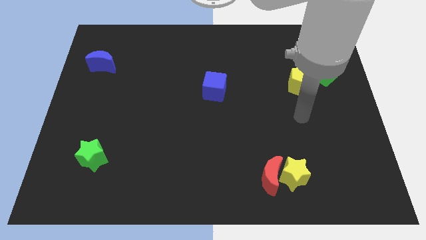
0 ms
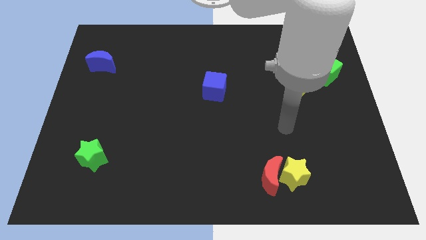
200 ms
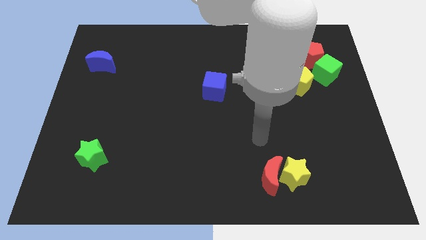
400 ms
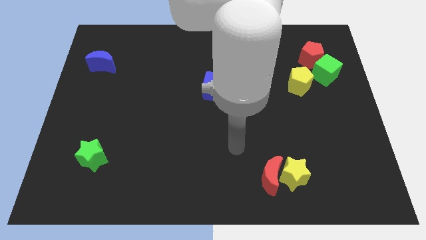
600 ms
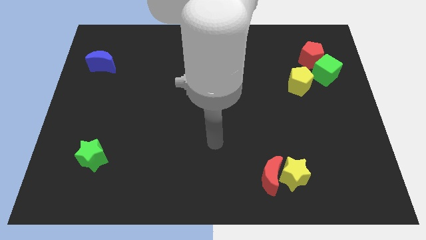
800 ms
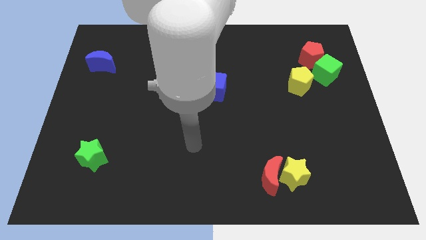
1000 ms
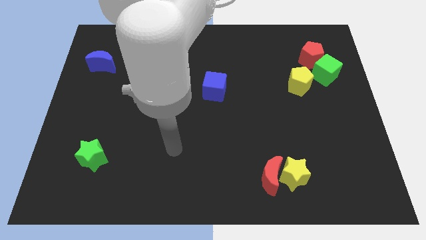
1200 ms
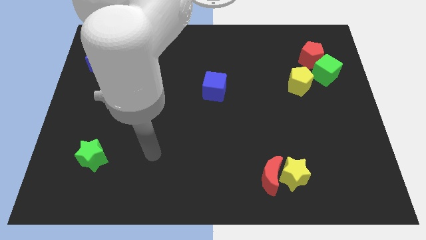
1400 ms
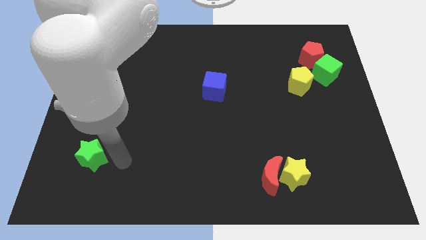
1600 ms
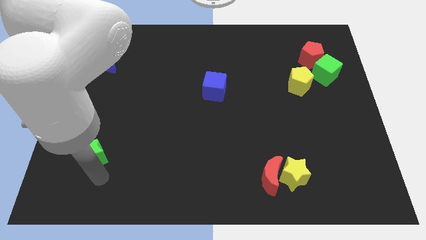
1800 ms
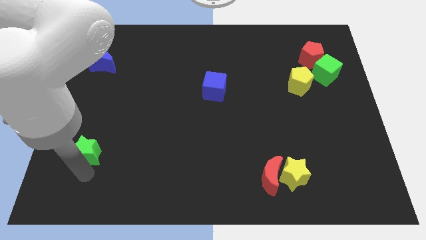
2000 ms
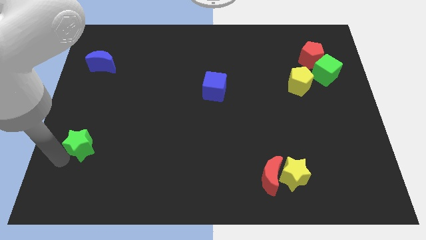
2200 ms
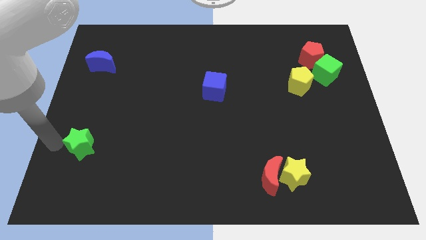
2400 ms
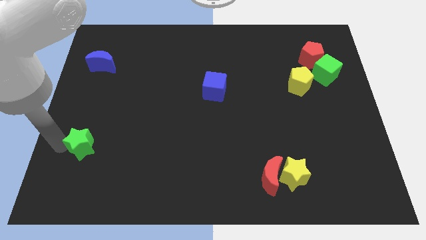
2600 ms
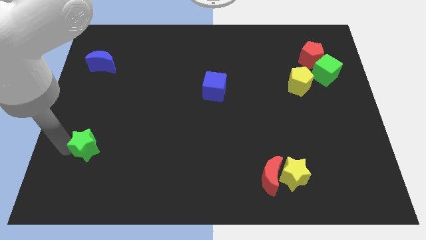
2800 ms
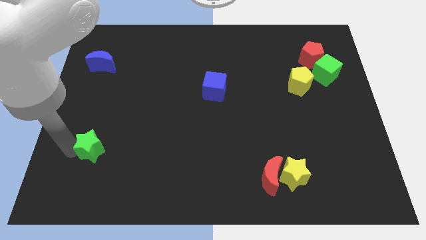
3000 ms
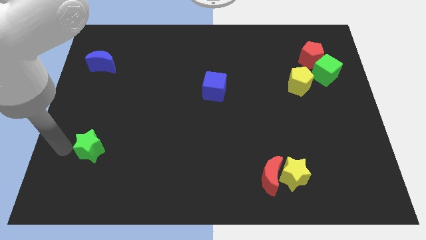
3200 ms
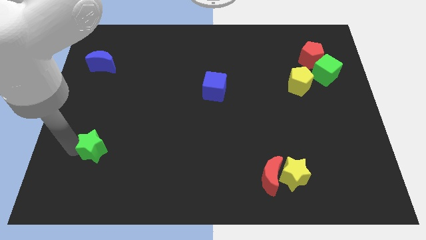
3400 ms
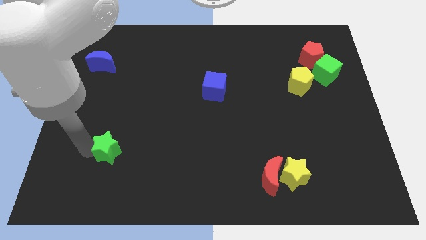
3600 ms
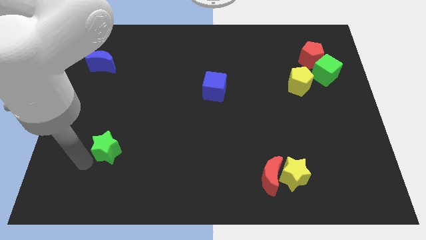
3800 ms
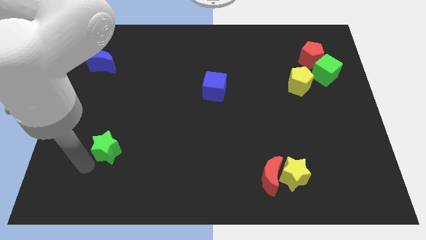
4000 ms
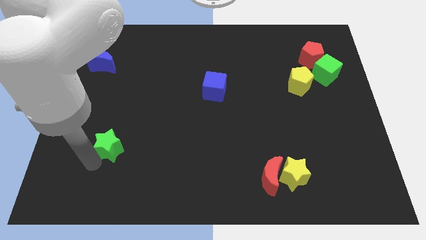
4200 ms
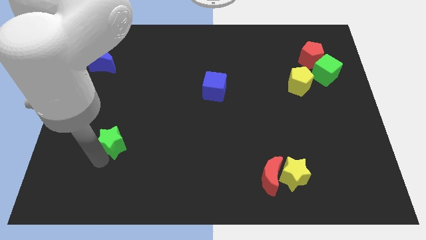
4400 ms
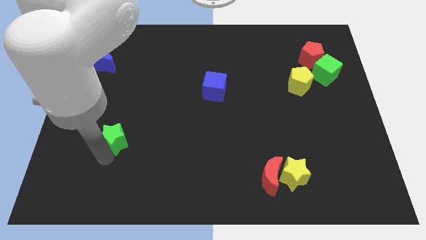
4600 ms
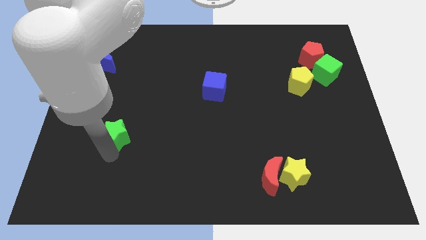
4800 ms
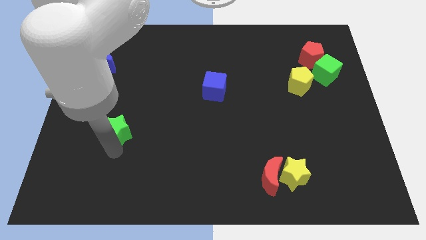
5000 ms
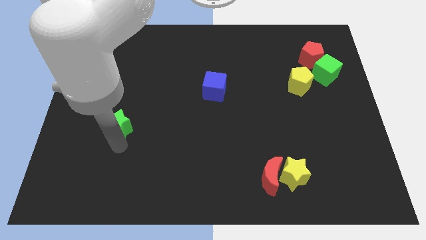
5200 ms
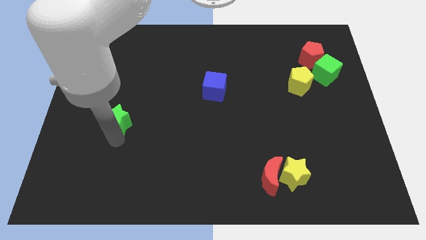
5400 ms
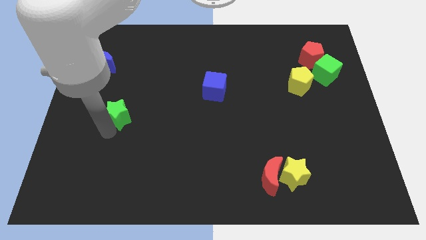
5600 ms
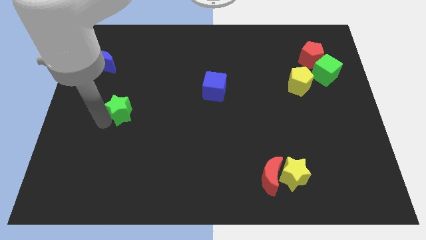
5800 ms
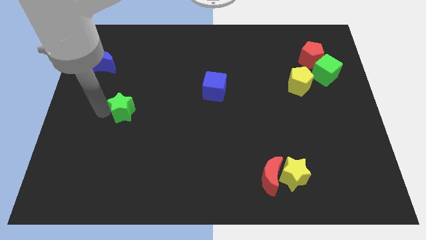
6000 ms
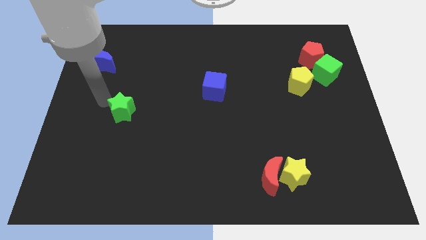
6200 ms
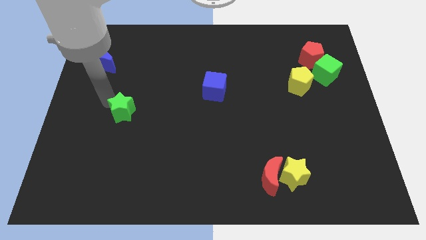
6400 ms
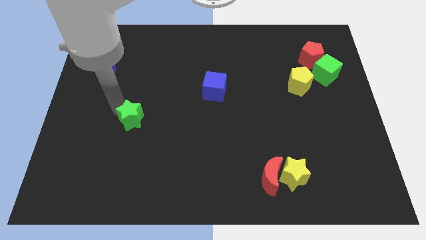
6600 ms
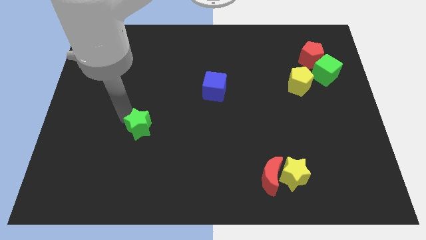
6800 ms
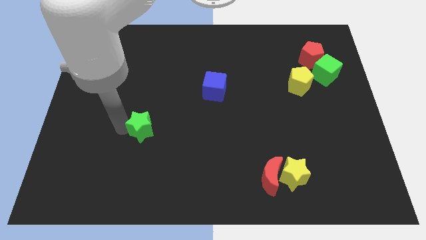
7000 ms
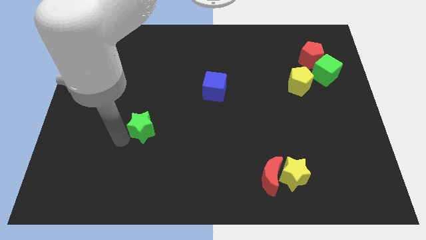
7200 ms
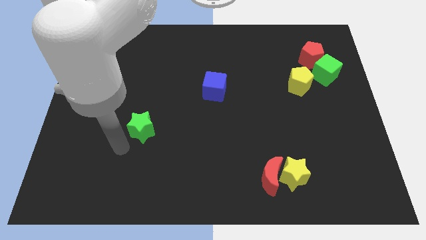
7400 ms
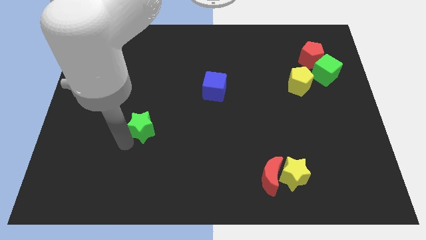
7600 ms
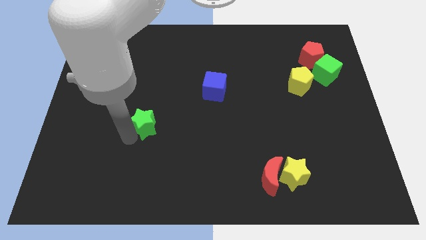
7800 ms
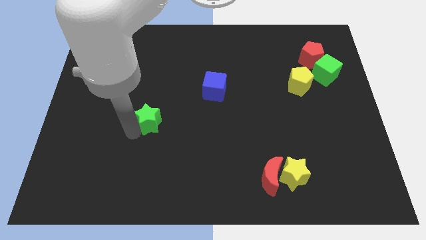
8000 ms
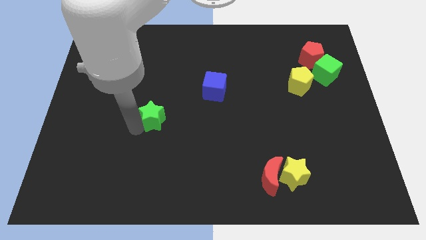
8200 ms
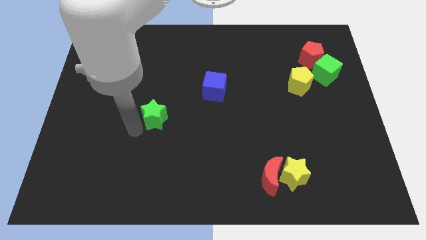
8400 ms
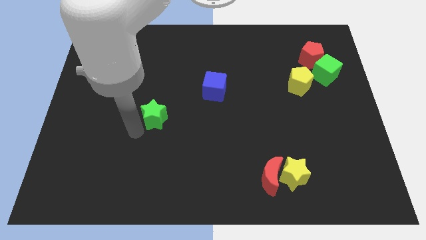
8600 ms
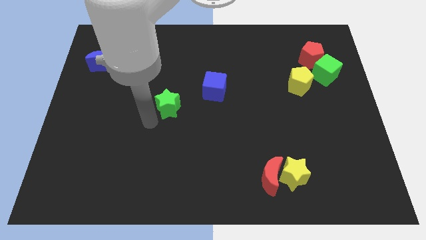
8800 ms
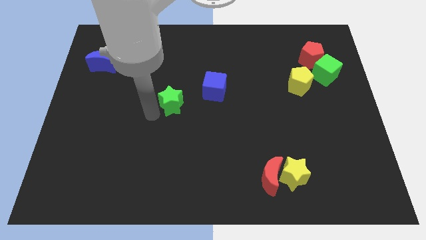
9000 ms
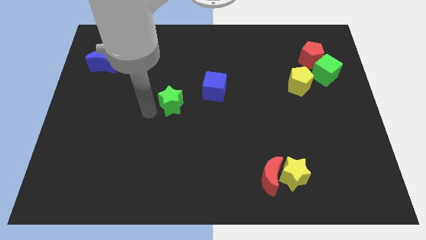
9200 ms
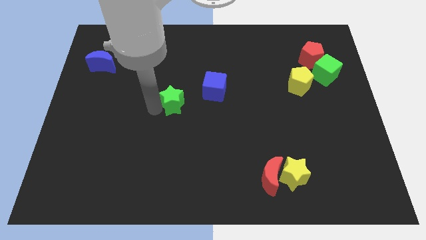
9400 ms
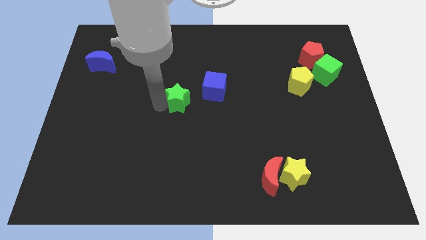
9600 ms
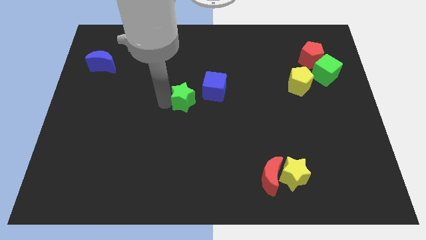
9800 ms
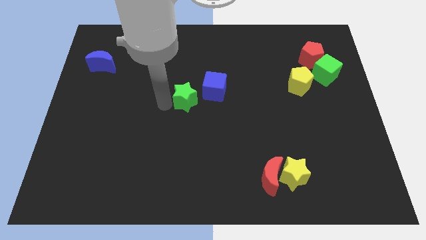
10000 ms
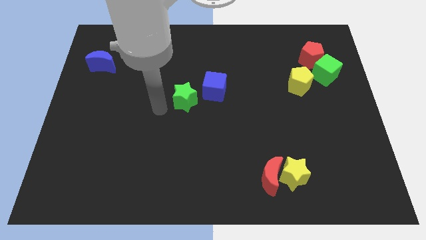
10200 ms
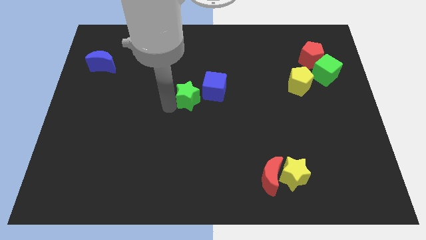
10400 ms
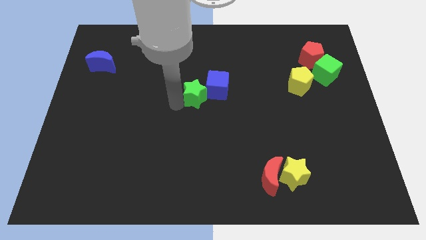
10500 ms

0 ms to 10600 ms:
put the green star next to the blue cube

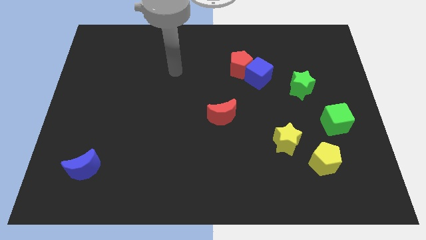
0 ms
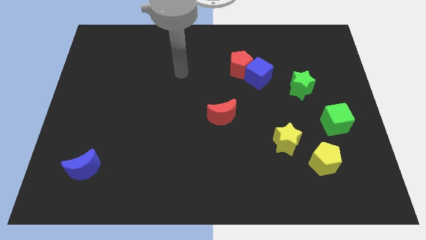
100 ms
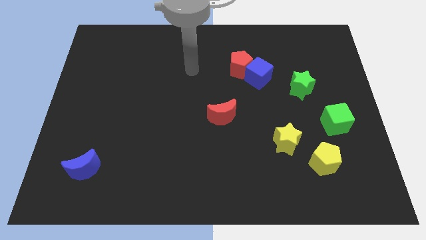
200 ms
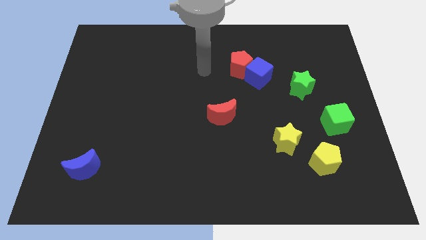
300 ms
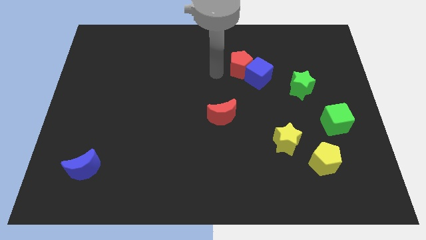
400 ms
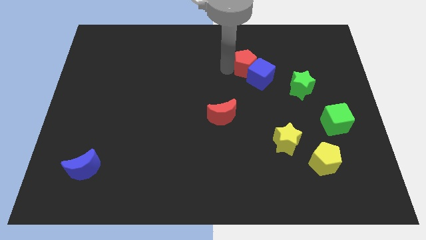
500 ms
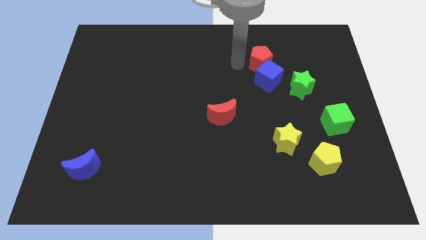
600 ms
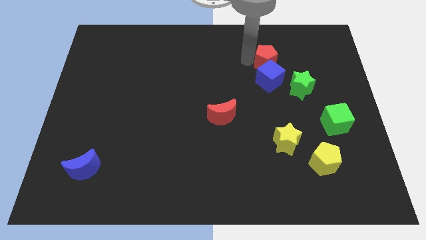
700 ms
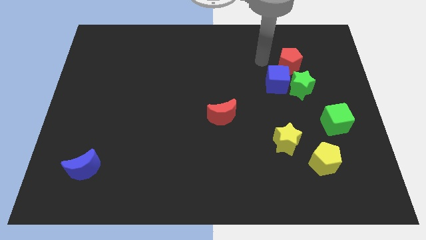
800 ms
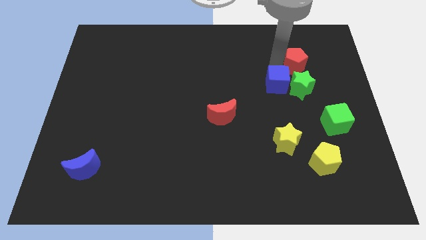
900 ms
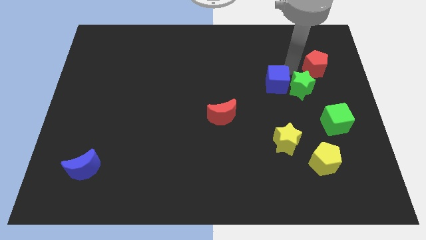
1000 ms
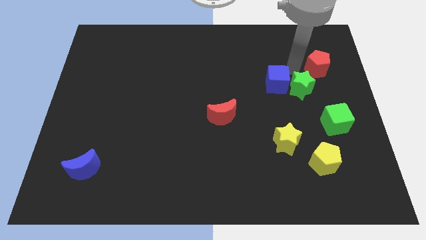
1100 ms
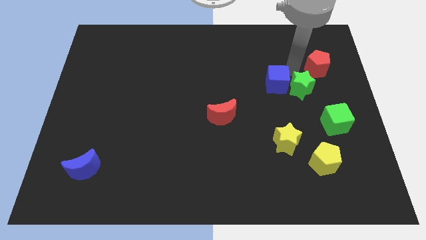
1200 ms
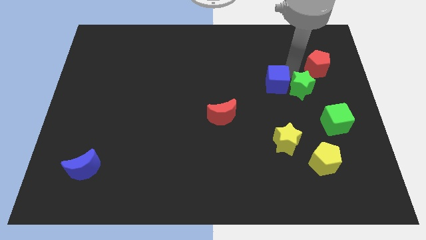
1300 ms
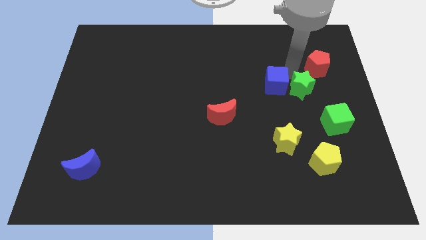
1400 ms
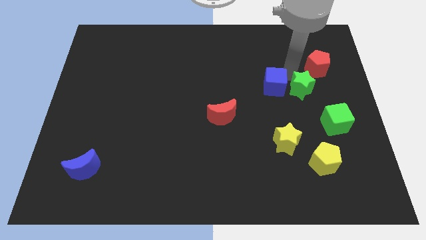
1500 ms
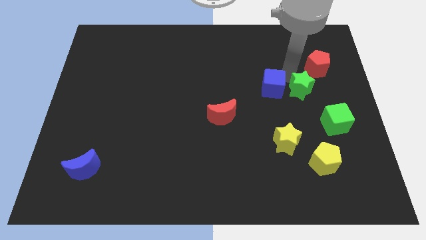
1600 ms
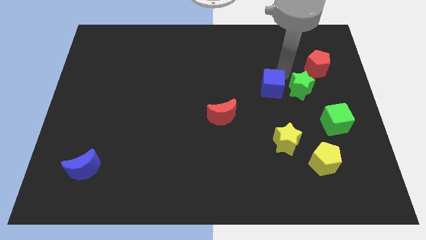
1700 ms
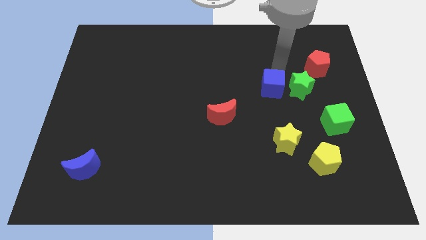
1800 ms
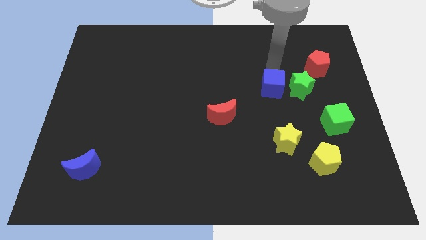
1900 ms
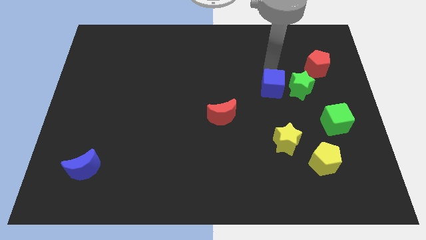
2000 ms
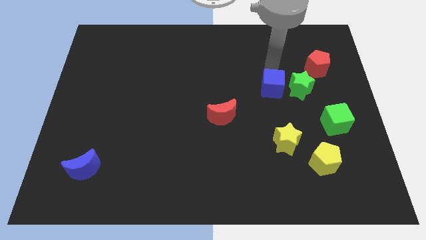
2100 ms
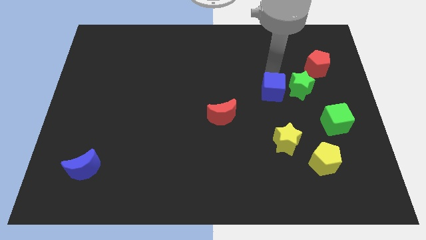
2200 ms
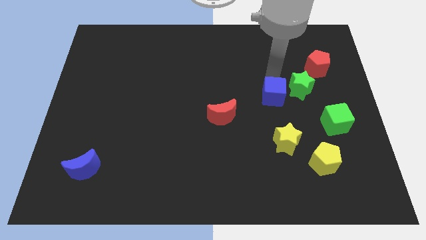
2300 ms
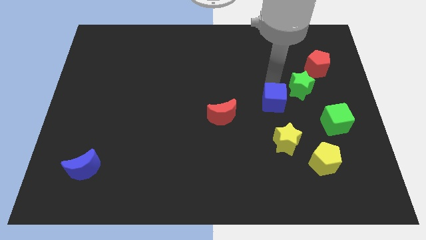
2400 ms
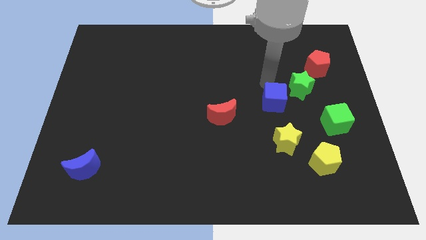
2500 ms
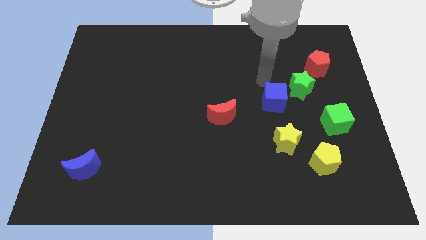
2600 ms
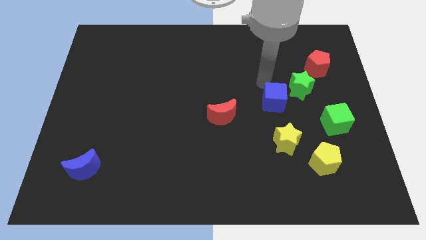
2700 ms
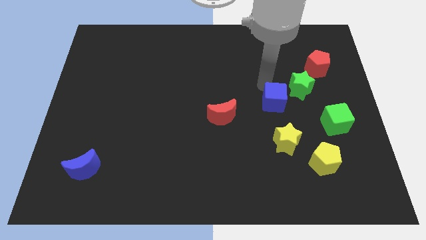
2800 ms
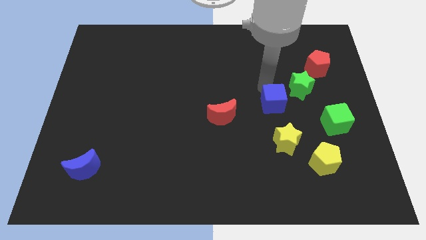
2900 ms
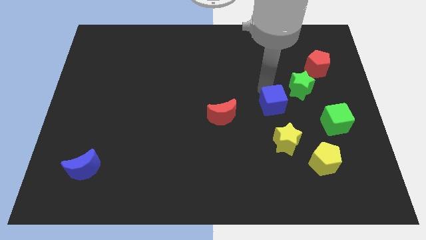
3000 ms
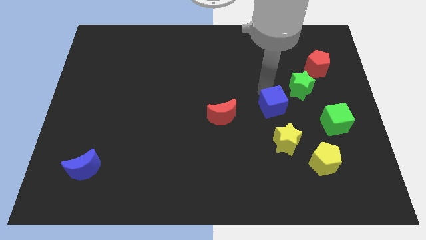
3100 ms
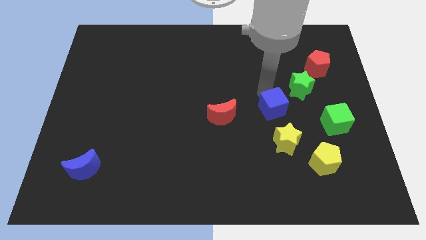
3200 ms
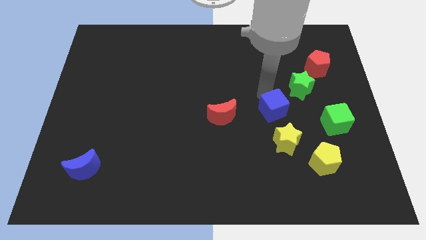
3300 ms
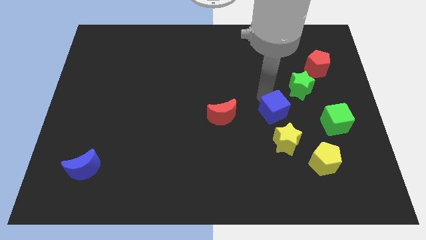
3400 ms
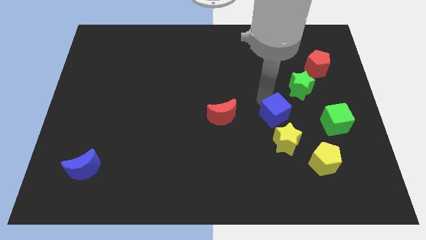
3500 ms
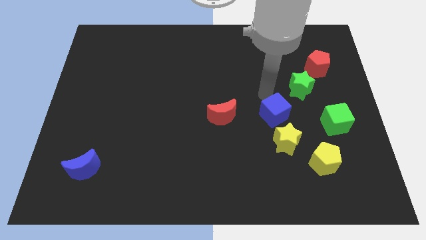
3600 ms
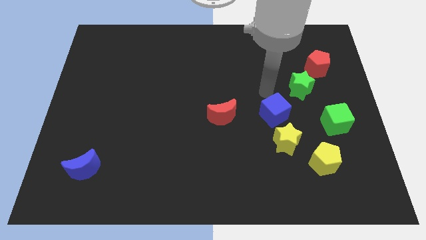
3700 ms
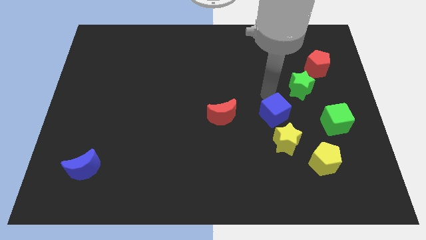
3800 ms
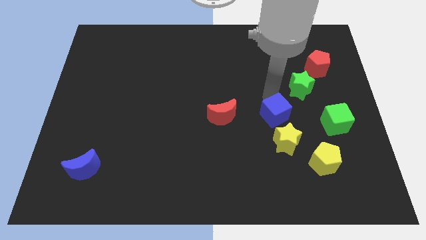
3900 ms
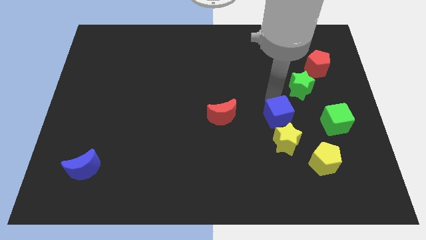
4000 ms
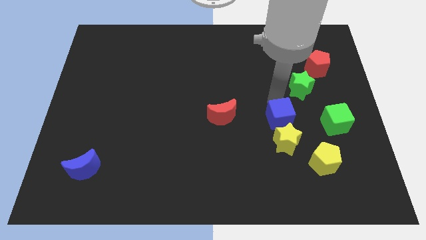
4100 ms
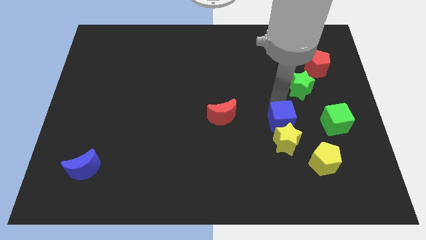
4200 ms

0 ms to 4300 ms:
push the blue cube towards the yellow star
